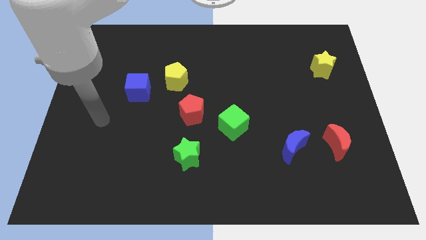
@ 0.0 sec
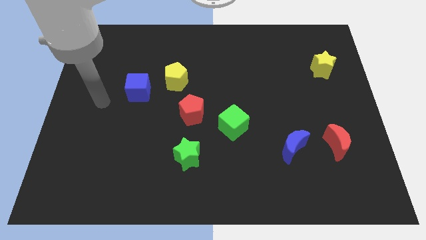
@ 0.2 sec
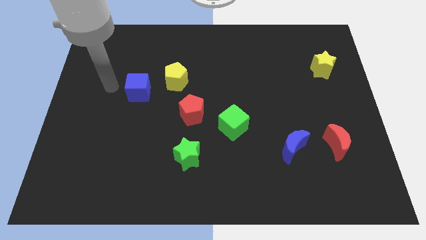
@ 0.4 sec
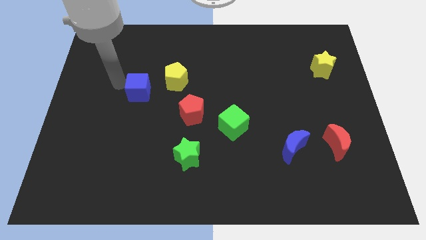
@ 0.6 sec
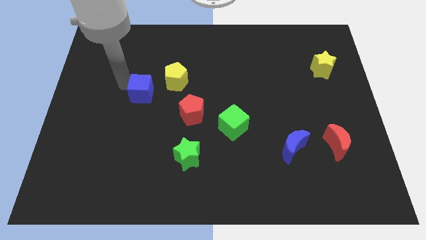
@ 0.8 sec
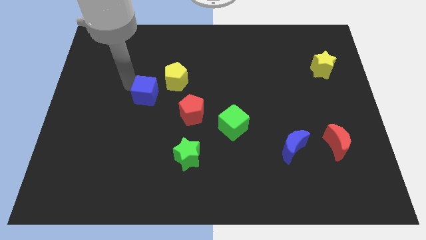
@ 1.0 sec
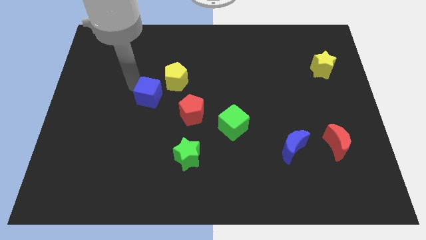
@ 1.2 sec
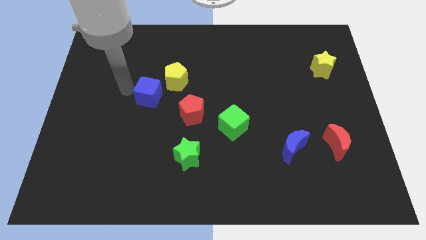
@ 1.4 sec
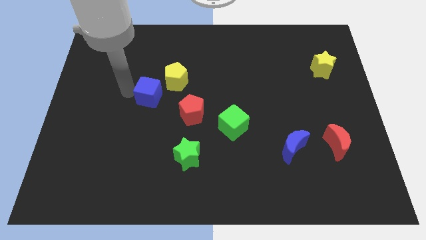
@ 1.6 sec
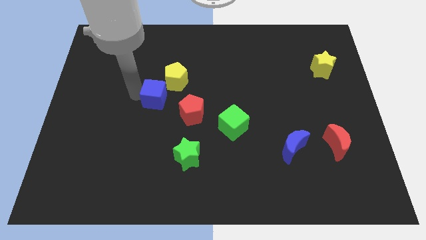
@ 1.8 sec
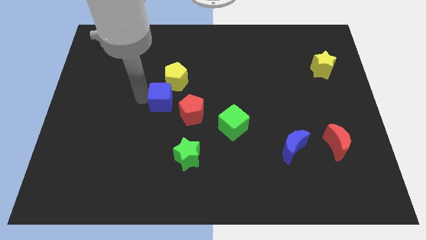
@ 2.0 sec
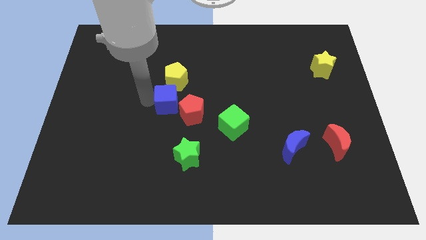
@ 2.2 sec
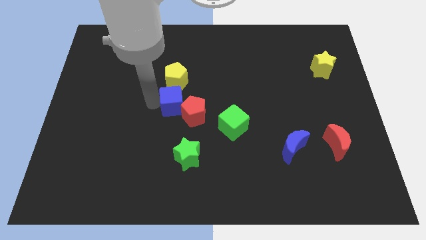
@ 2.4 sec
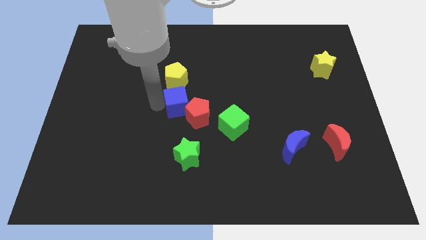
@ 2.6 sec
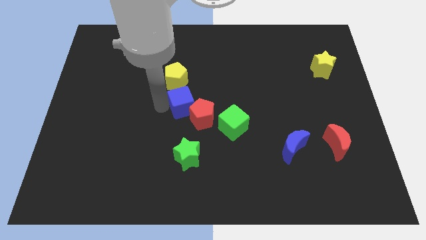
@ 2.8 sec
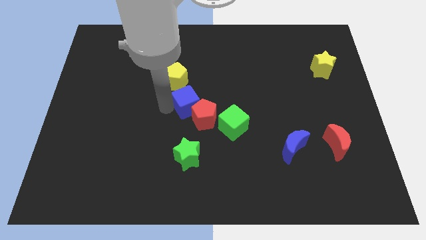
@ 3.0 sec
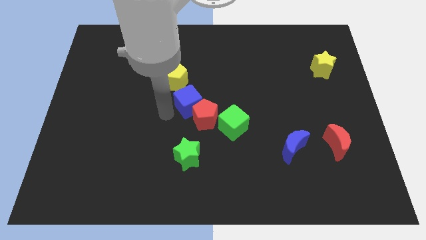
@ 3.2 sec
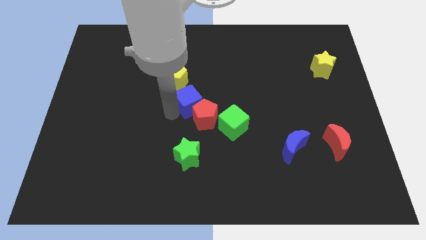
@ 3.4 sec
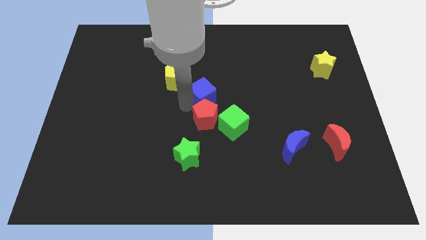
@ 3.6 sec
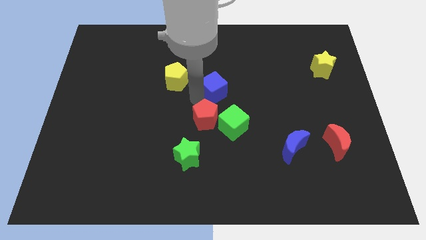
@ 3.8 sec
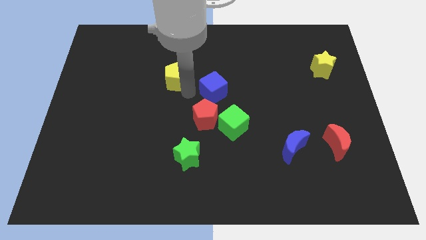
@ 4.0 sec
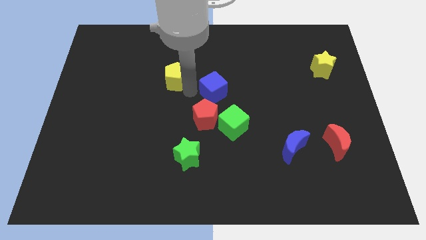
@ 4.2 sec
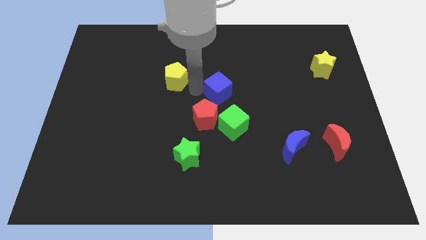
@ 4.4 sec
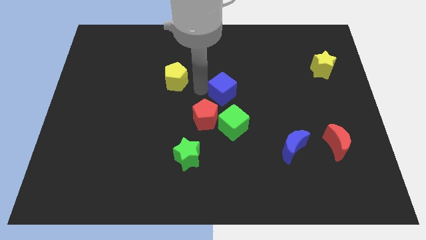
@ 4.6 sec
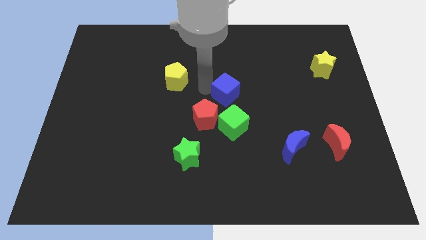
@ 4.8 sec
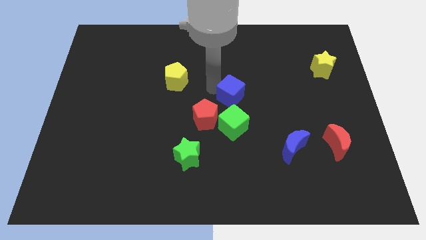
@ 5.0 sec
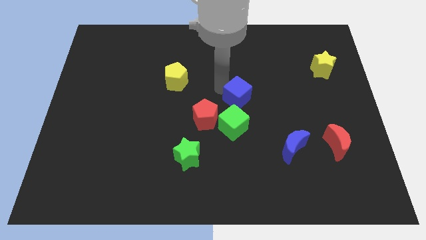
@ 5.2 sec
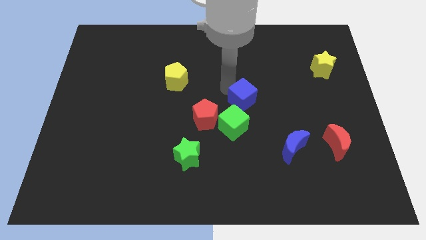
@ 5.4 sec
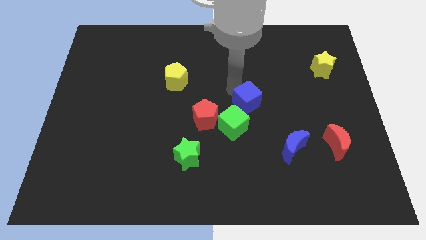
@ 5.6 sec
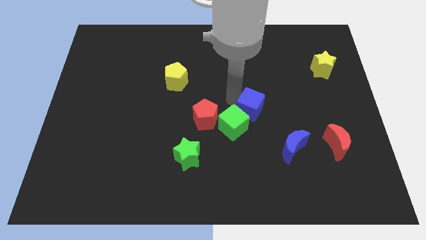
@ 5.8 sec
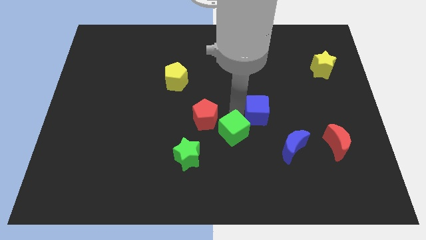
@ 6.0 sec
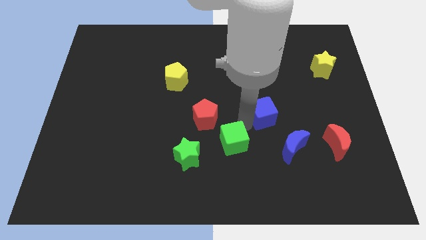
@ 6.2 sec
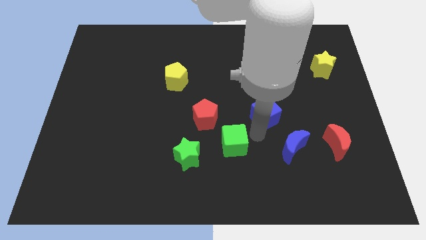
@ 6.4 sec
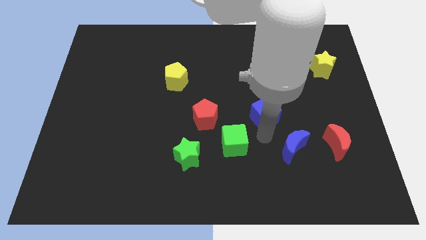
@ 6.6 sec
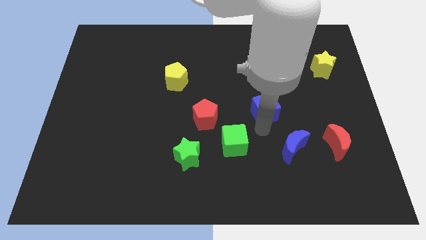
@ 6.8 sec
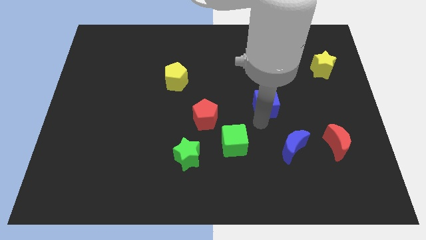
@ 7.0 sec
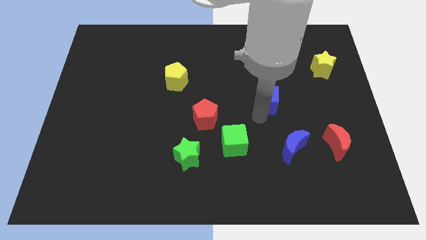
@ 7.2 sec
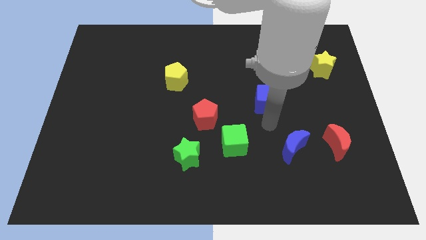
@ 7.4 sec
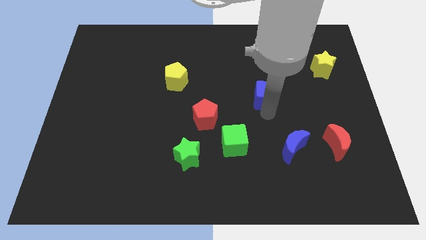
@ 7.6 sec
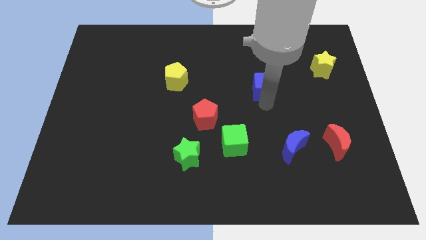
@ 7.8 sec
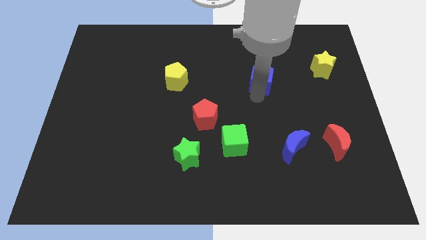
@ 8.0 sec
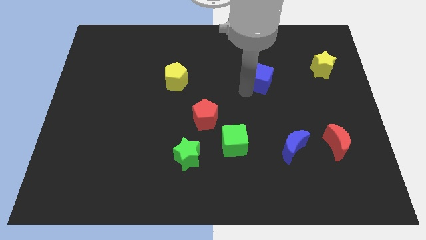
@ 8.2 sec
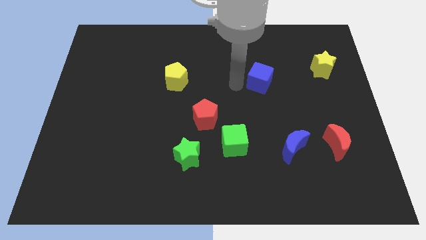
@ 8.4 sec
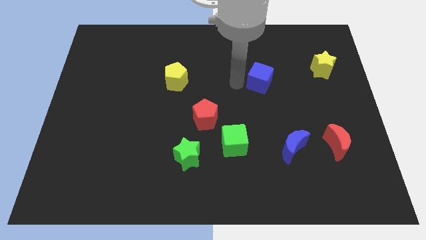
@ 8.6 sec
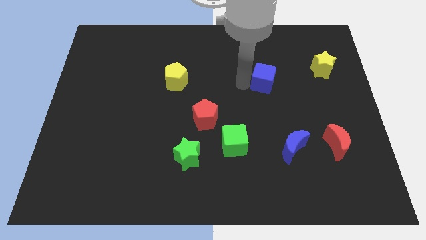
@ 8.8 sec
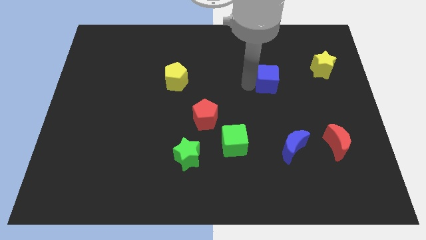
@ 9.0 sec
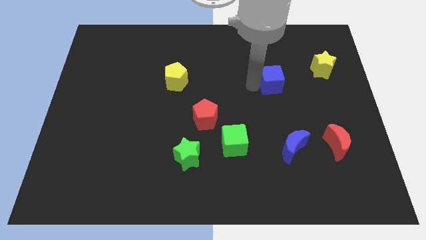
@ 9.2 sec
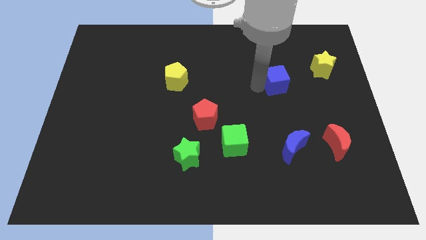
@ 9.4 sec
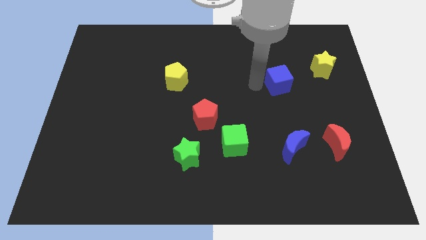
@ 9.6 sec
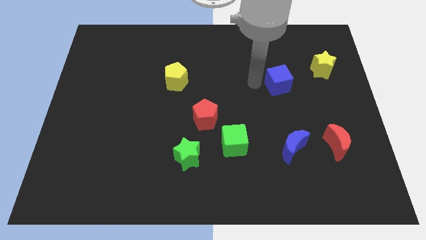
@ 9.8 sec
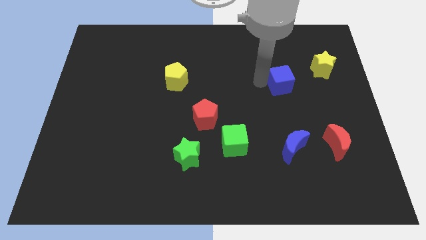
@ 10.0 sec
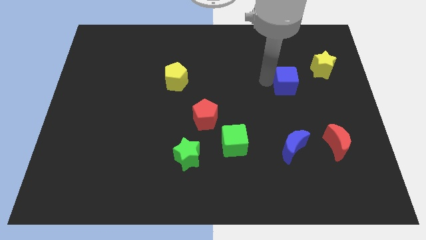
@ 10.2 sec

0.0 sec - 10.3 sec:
push the blue cube to the bottom left of the yellow star

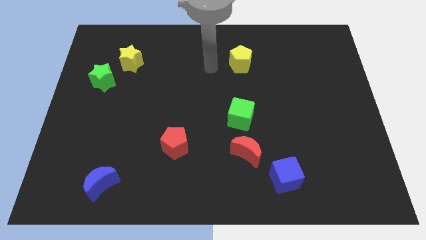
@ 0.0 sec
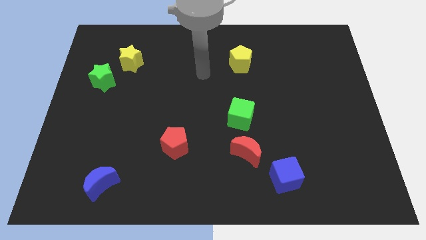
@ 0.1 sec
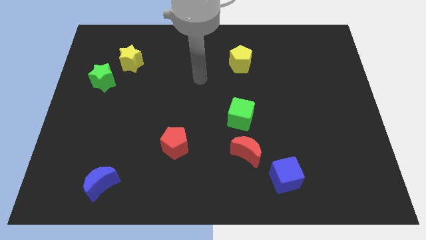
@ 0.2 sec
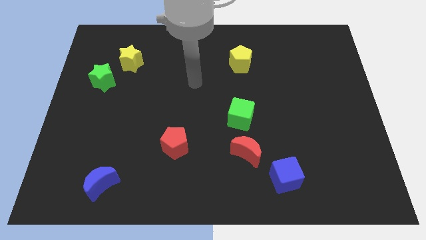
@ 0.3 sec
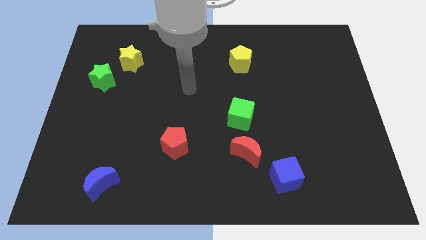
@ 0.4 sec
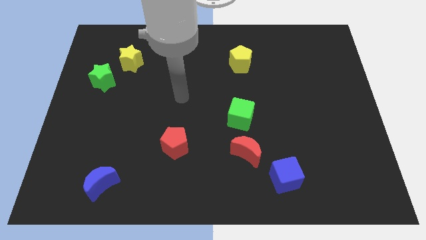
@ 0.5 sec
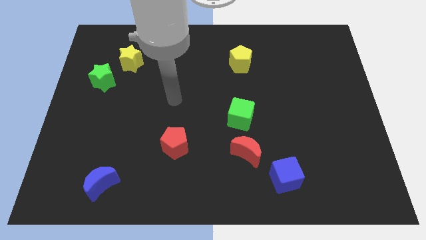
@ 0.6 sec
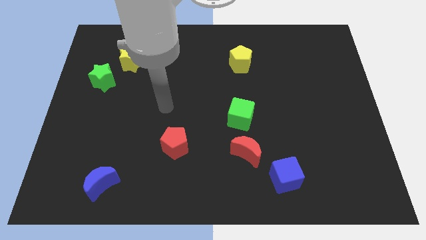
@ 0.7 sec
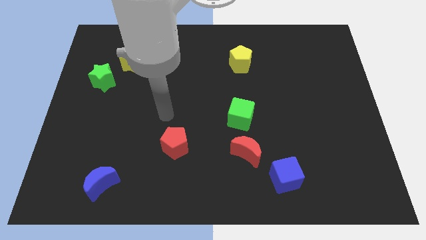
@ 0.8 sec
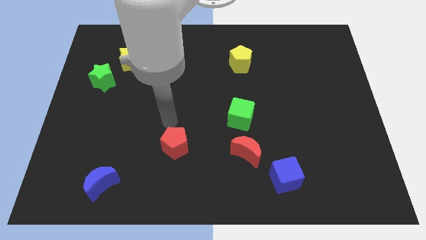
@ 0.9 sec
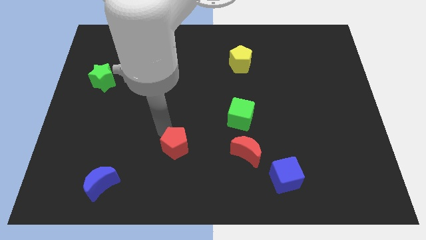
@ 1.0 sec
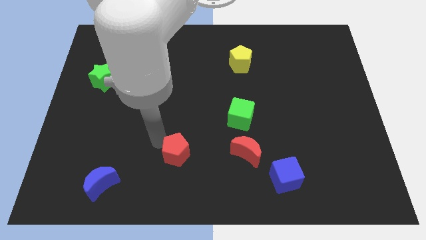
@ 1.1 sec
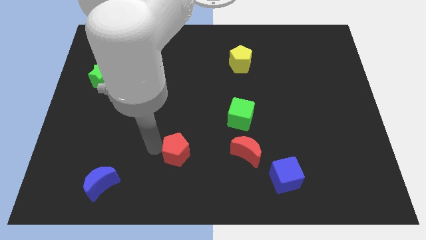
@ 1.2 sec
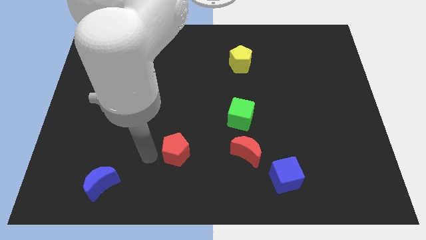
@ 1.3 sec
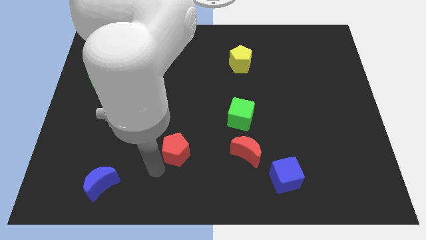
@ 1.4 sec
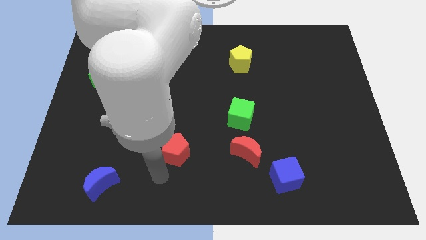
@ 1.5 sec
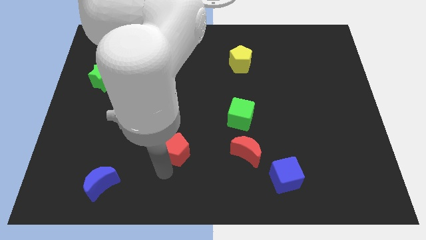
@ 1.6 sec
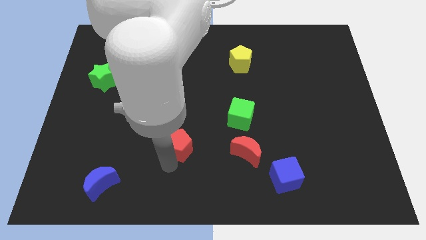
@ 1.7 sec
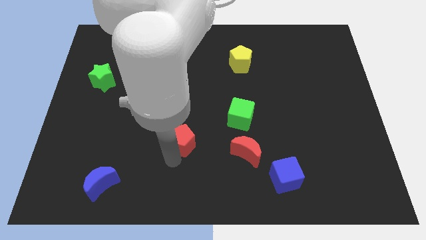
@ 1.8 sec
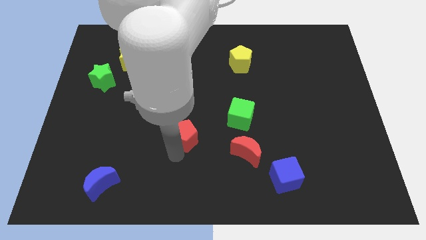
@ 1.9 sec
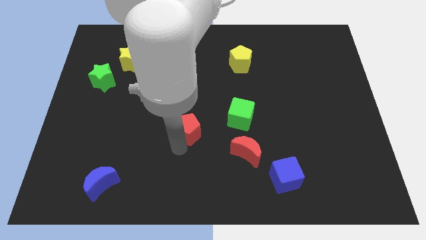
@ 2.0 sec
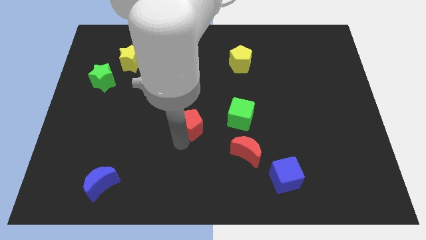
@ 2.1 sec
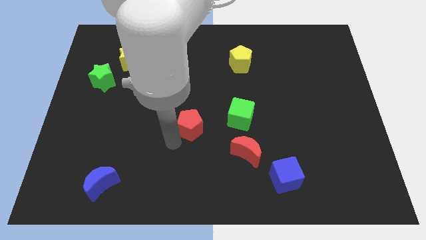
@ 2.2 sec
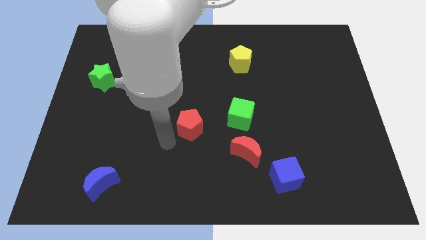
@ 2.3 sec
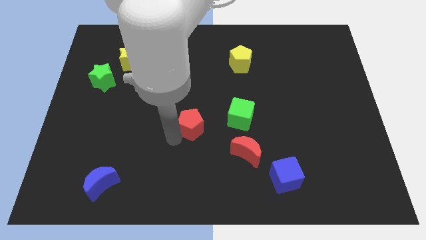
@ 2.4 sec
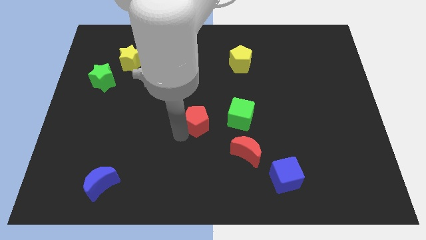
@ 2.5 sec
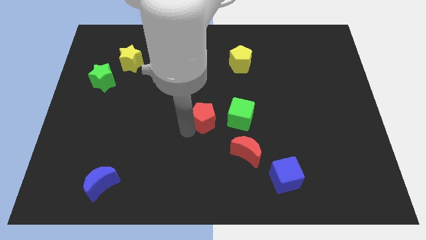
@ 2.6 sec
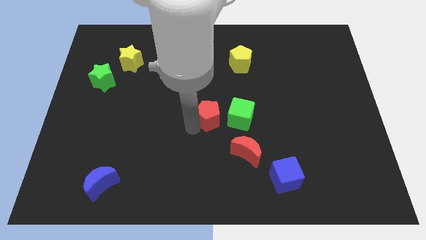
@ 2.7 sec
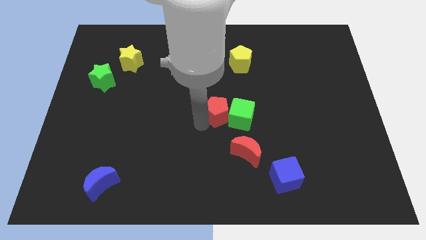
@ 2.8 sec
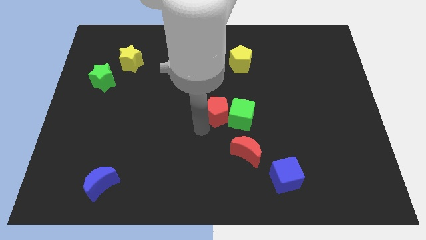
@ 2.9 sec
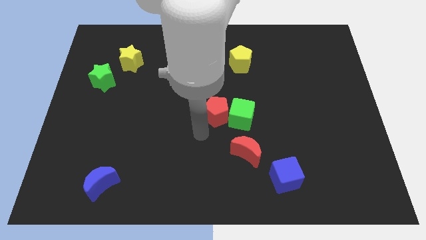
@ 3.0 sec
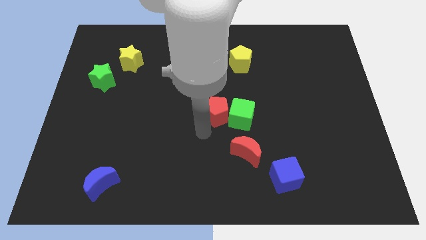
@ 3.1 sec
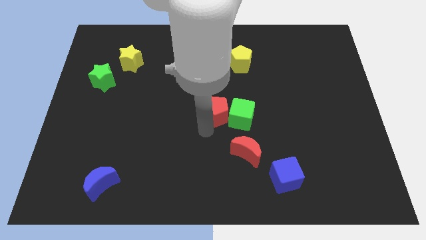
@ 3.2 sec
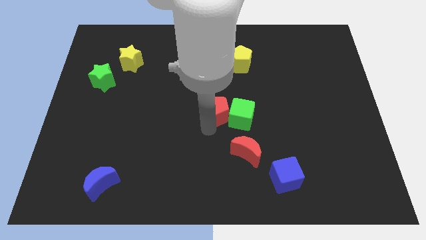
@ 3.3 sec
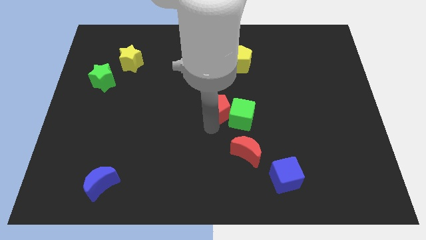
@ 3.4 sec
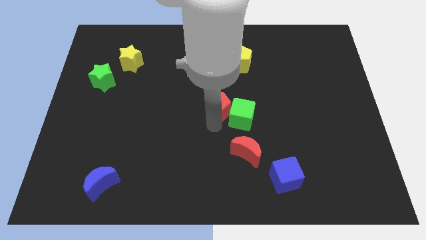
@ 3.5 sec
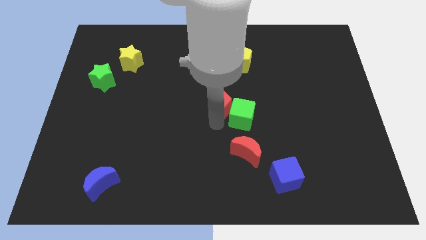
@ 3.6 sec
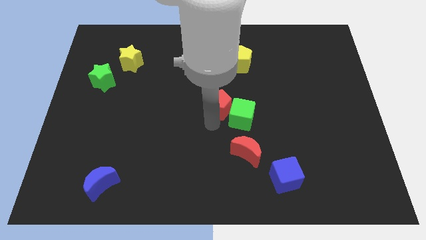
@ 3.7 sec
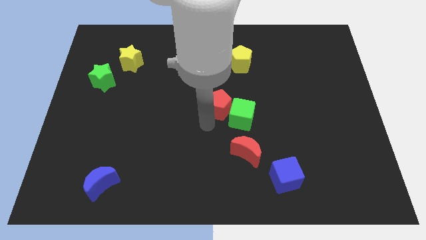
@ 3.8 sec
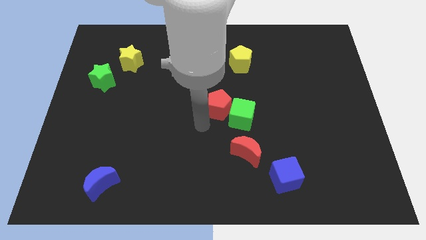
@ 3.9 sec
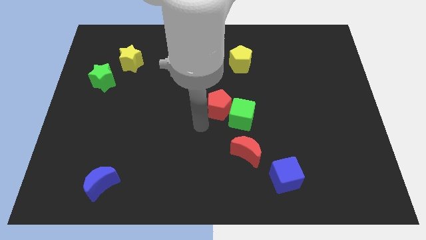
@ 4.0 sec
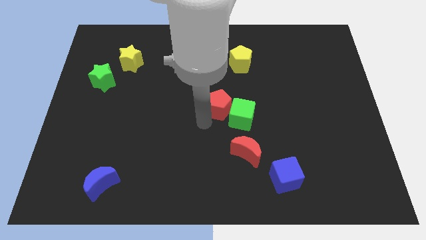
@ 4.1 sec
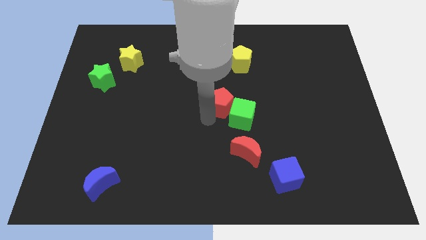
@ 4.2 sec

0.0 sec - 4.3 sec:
slide the red pentagon above the green cube
